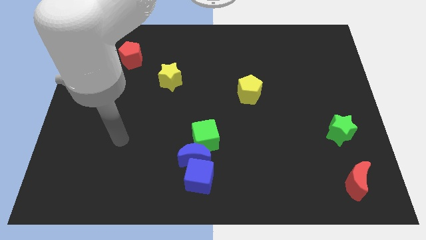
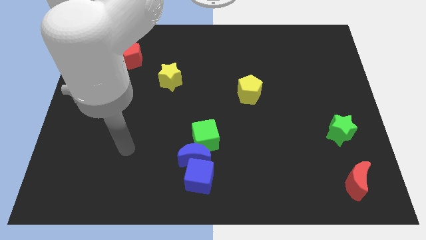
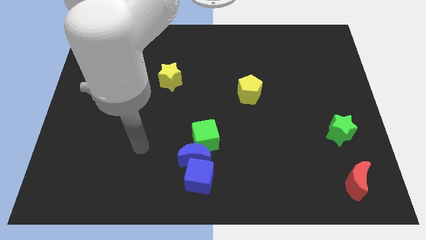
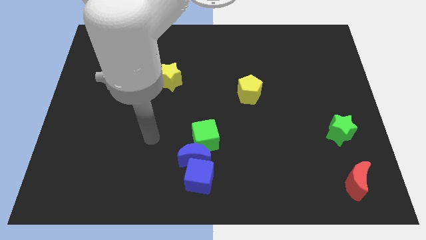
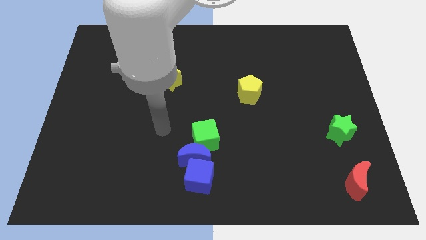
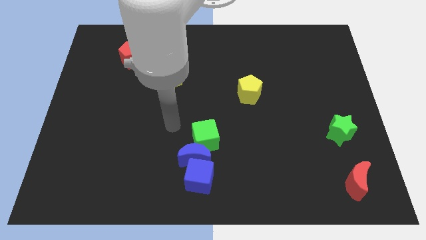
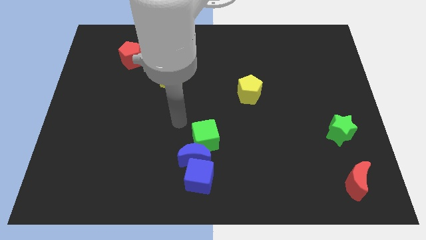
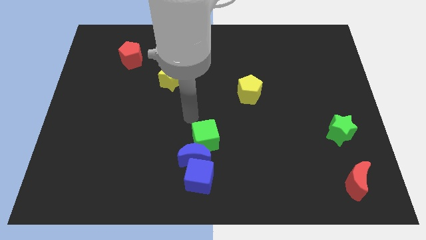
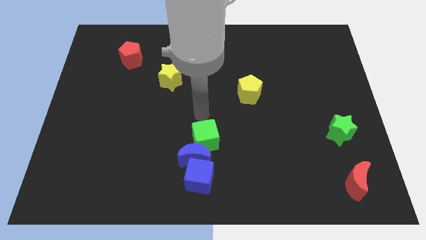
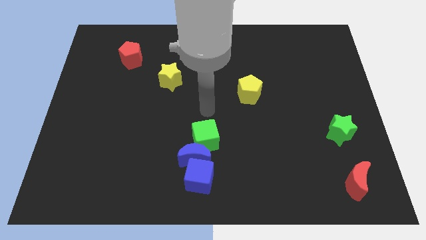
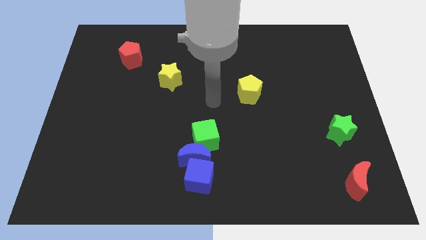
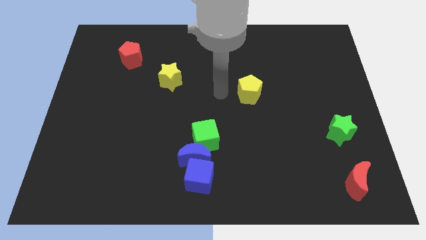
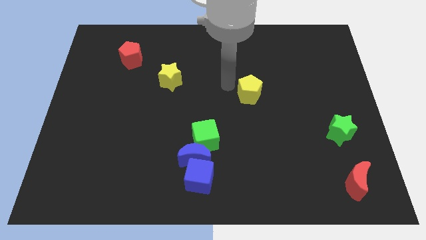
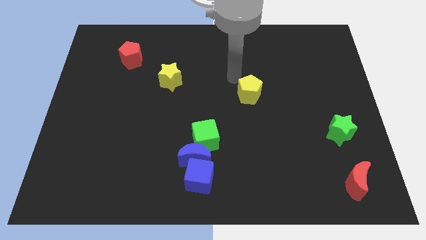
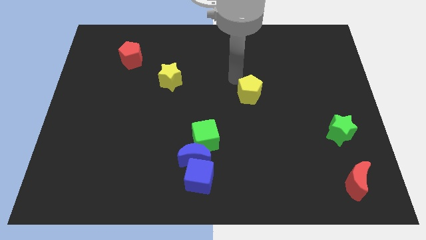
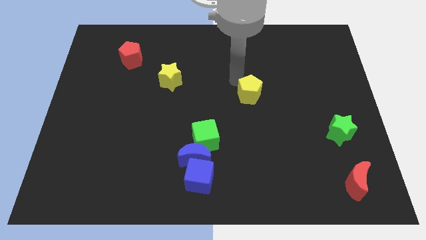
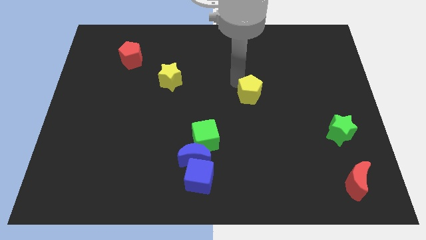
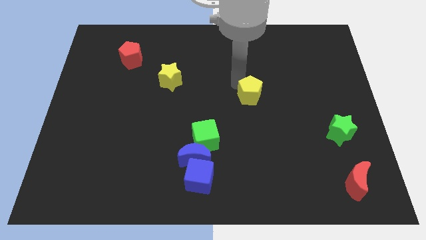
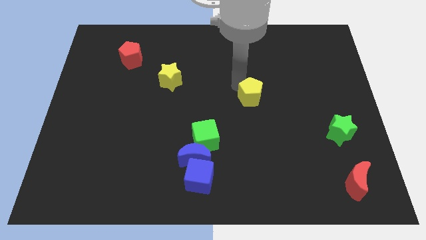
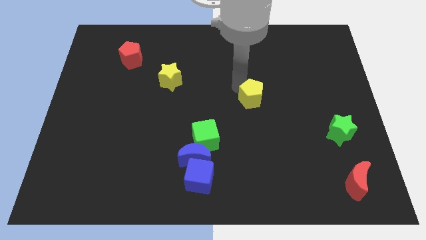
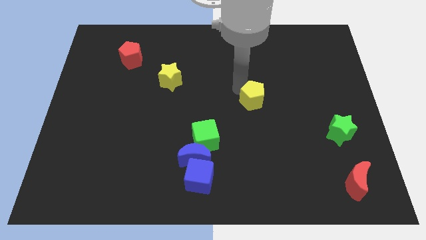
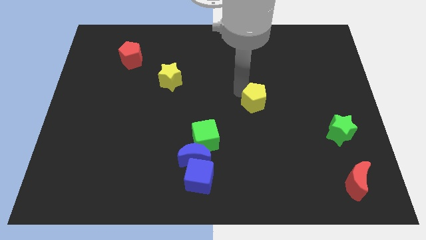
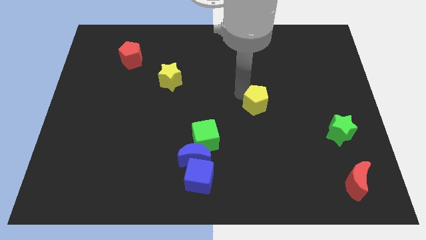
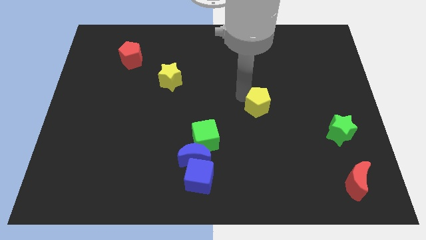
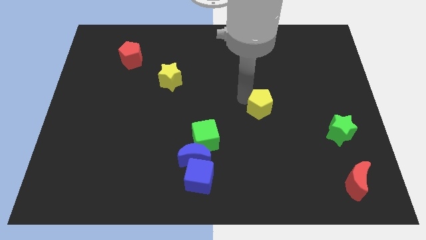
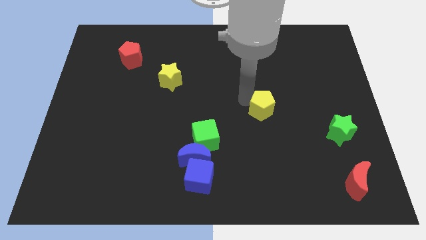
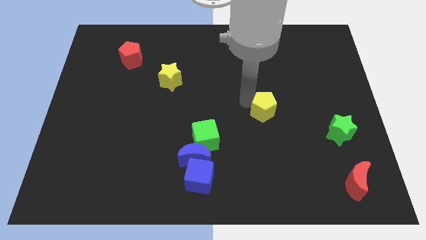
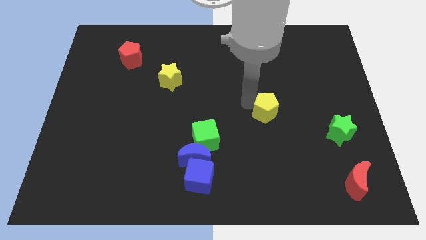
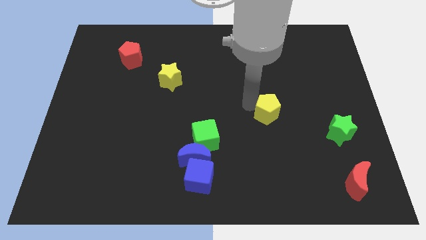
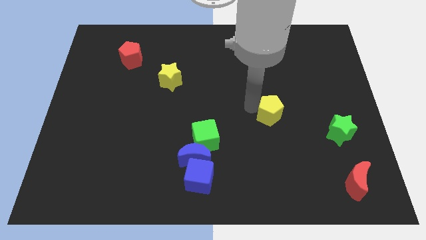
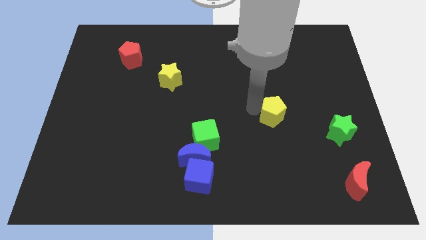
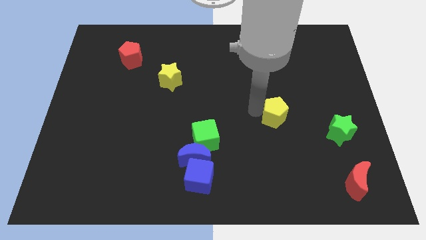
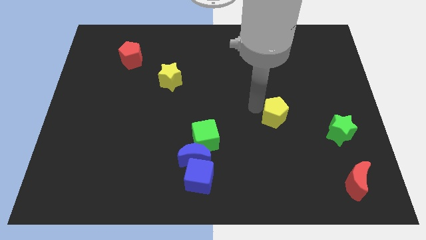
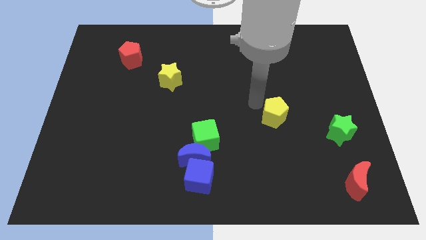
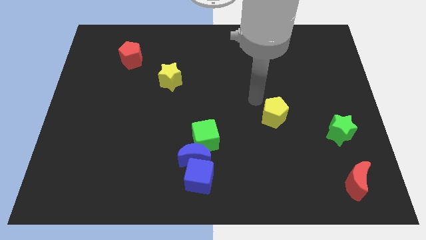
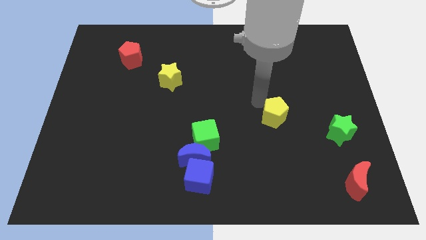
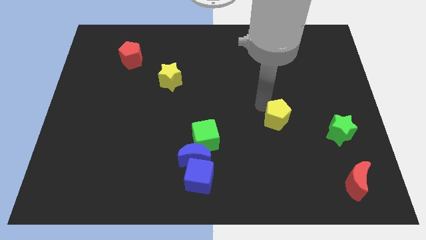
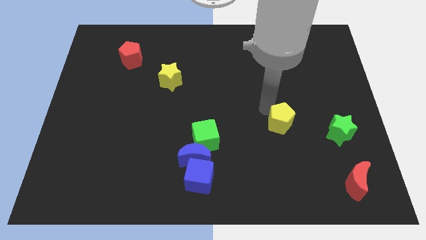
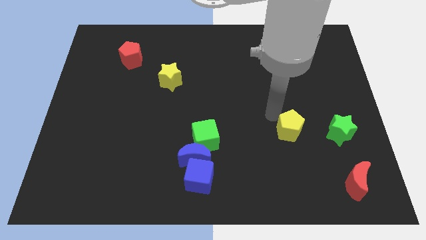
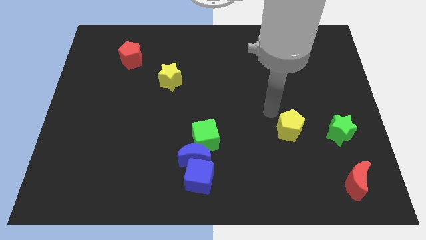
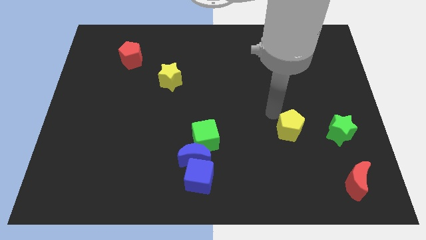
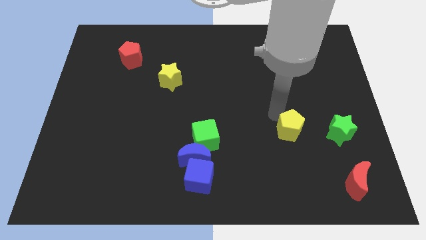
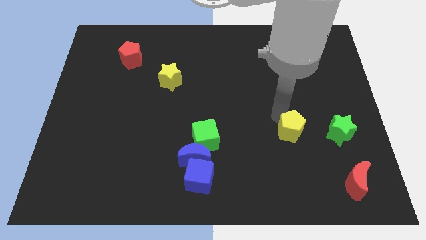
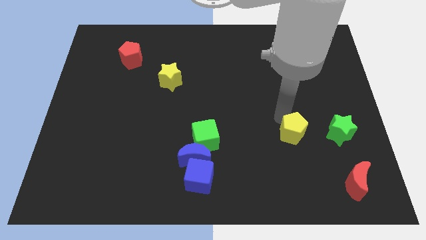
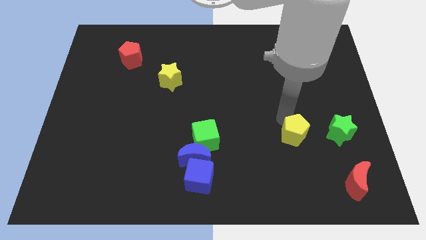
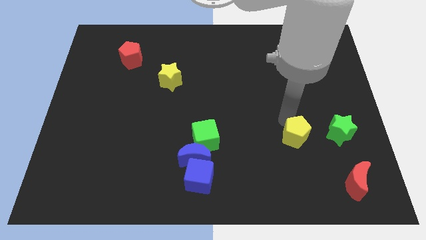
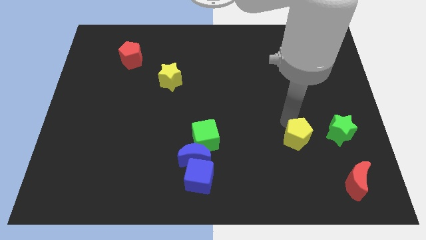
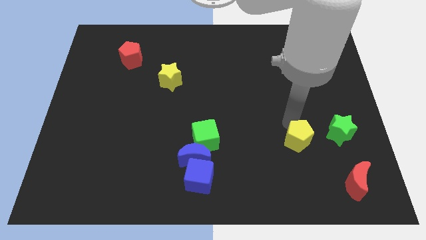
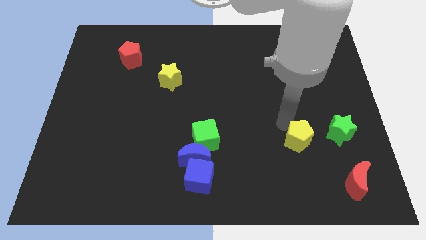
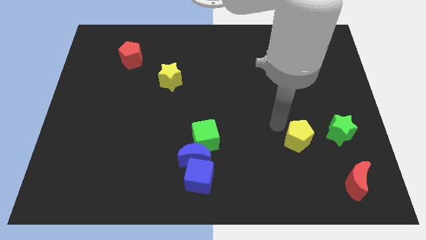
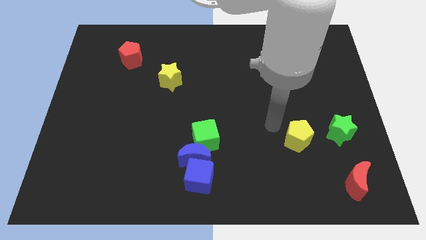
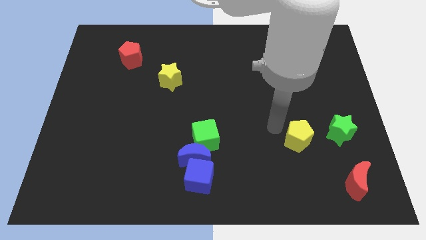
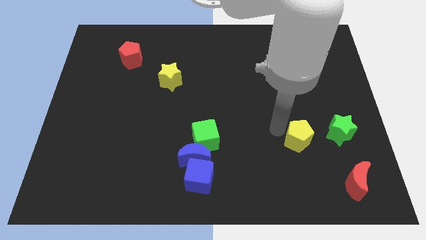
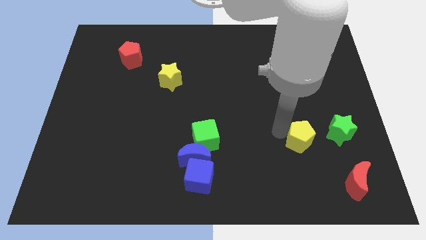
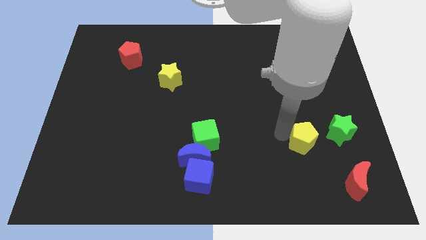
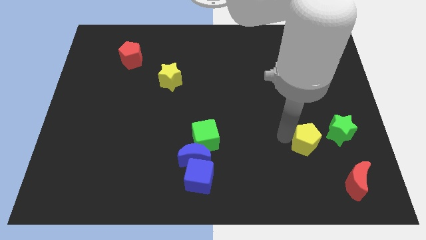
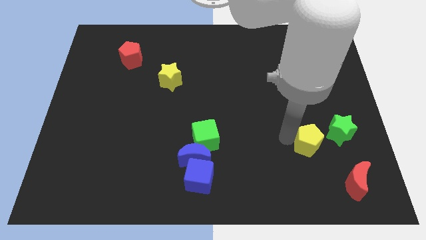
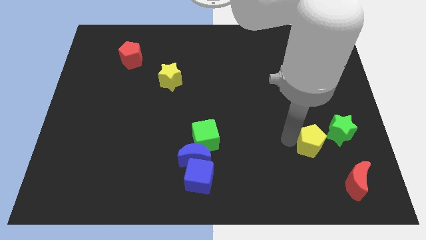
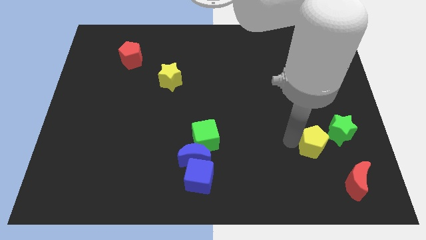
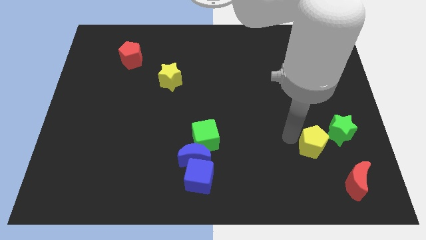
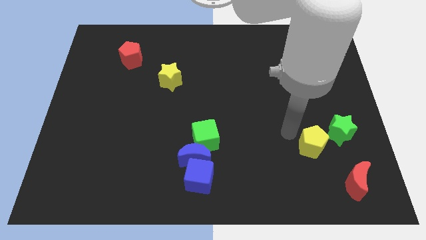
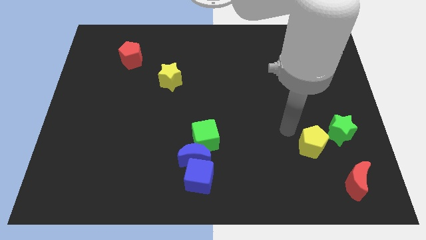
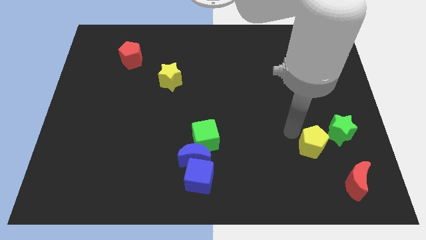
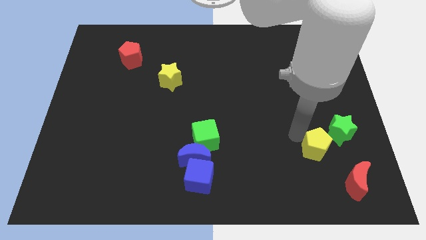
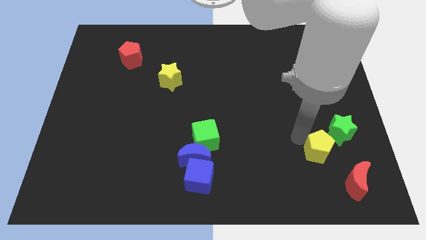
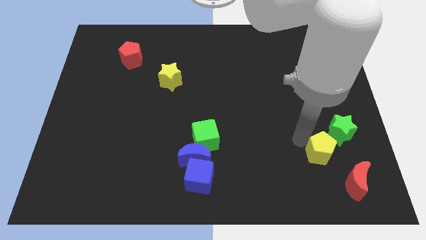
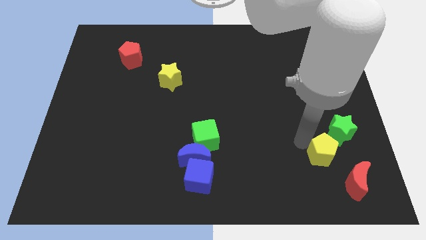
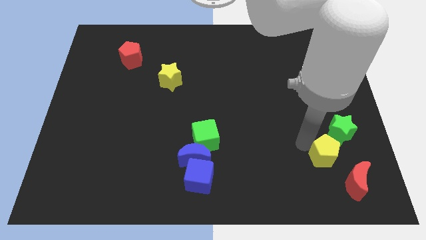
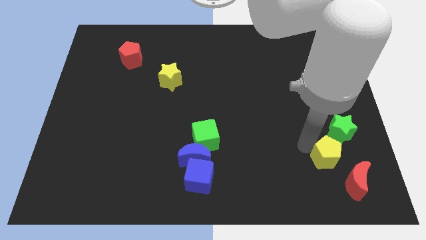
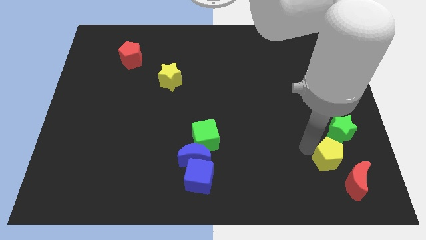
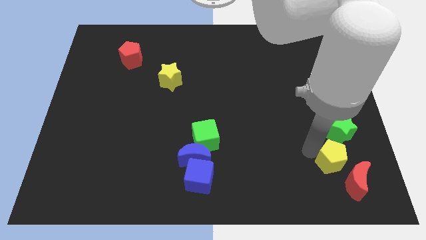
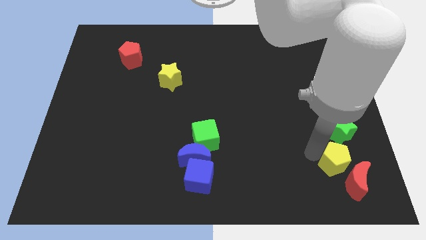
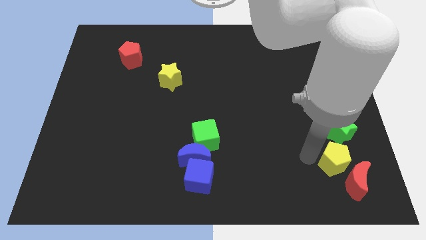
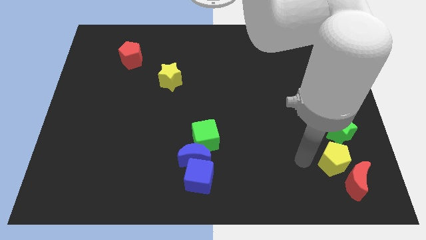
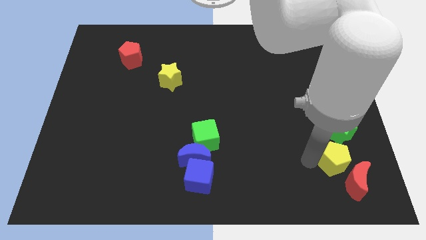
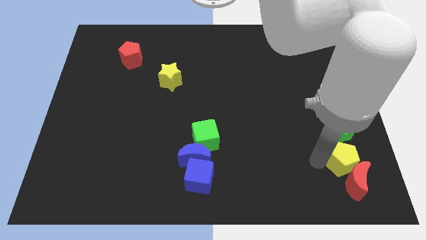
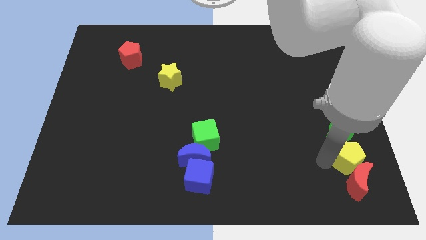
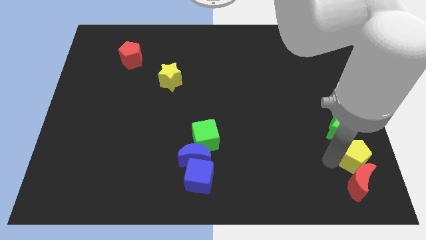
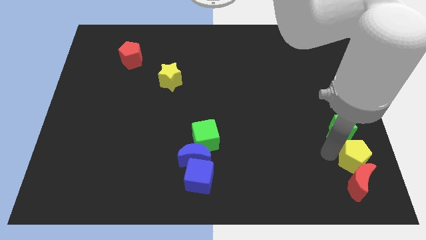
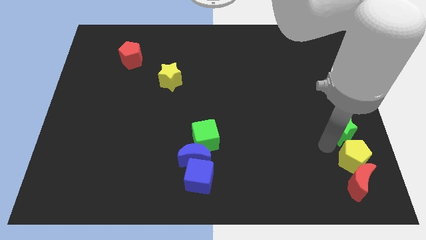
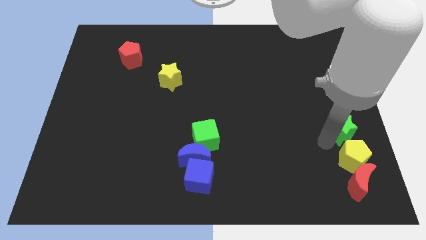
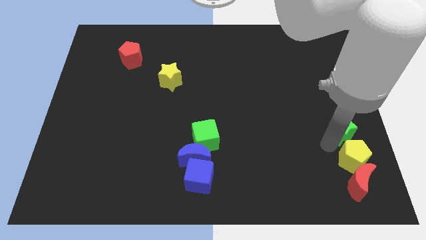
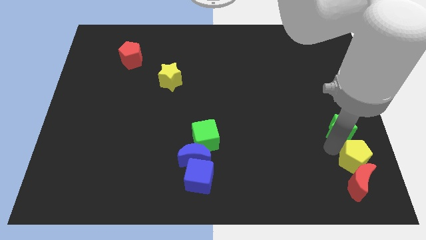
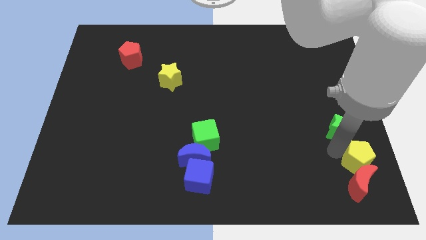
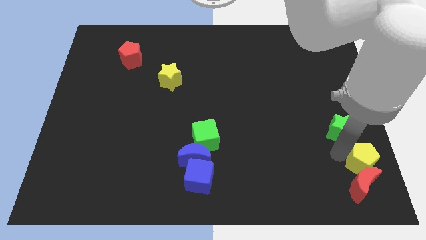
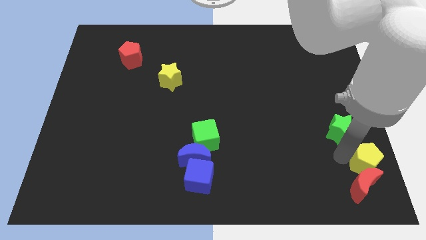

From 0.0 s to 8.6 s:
slide the yellow pentagon to the bottom right corner
